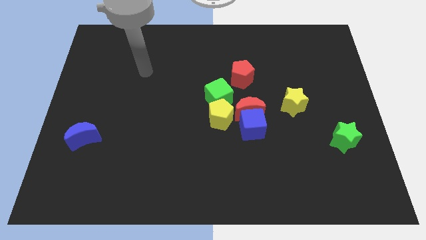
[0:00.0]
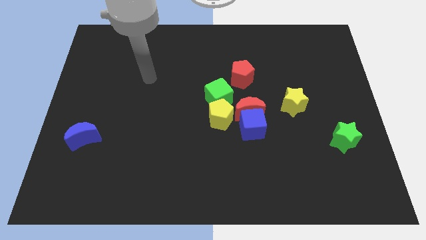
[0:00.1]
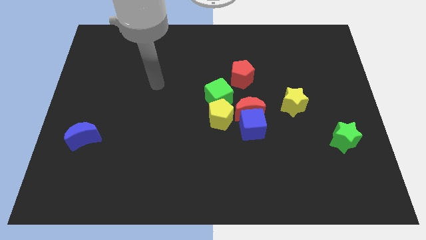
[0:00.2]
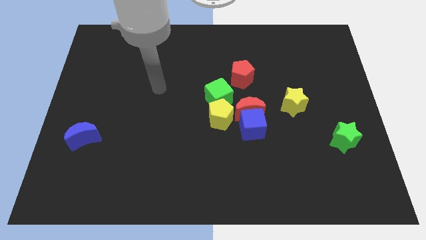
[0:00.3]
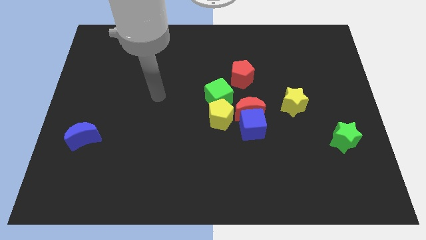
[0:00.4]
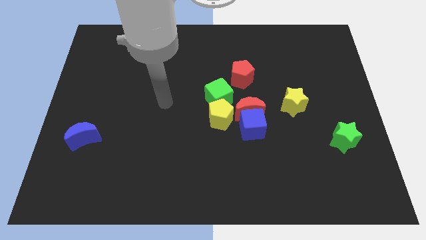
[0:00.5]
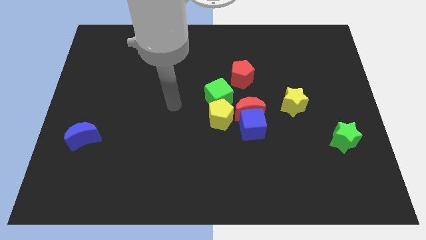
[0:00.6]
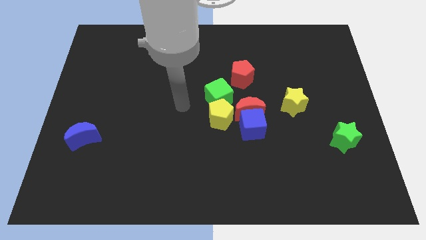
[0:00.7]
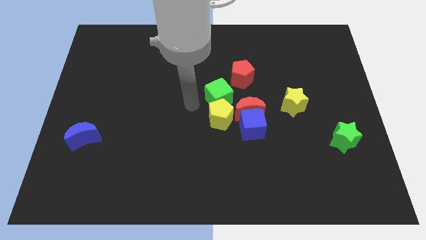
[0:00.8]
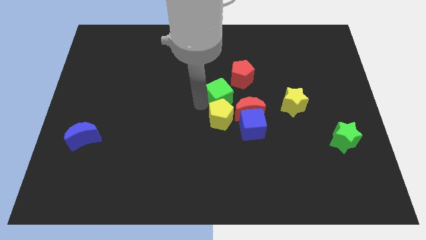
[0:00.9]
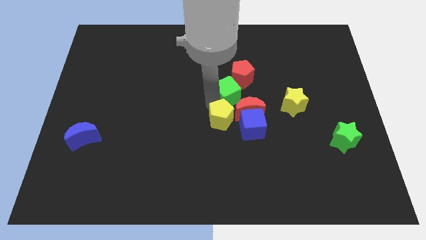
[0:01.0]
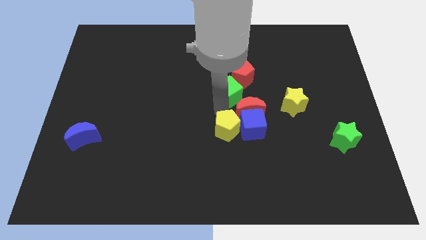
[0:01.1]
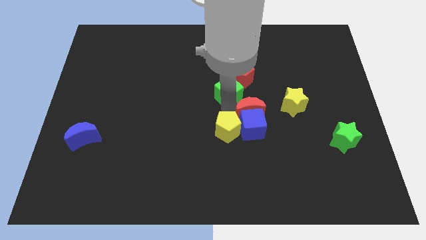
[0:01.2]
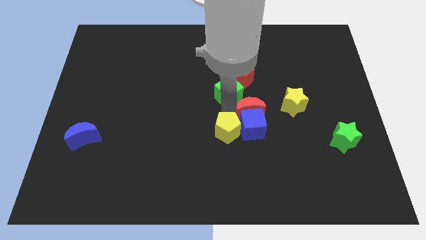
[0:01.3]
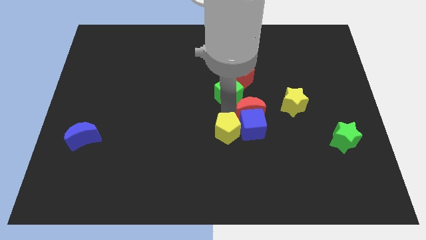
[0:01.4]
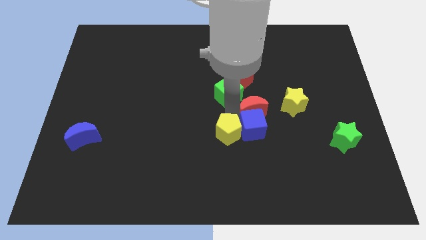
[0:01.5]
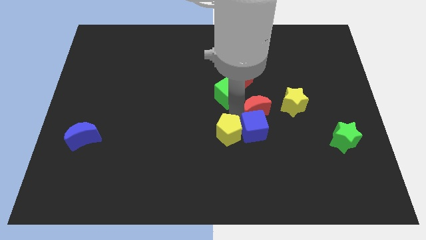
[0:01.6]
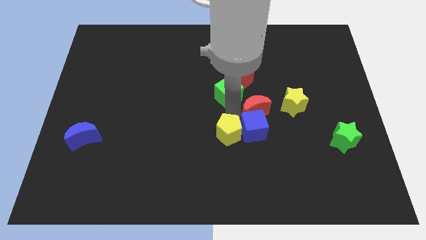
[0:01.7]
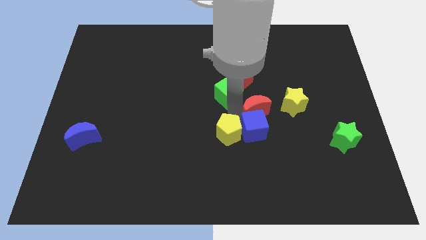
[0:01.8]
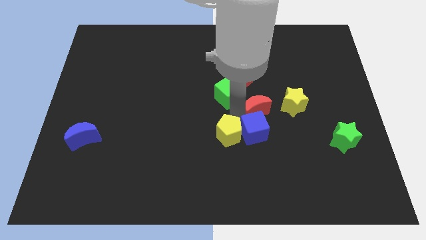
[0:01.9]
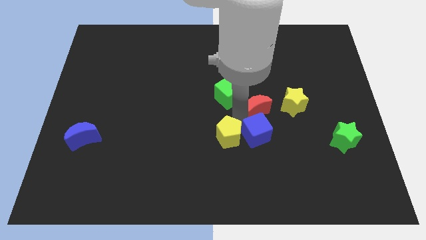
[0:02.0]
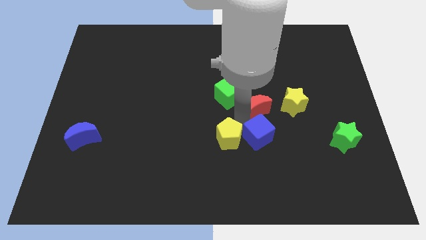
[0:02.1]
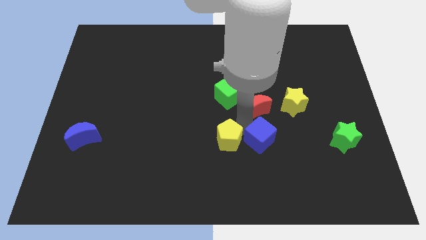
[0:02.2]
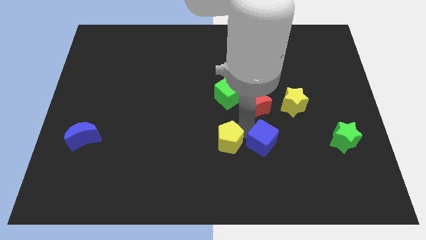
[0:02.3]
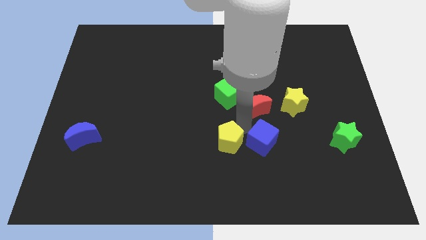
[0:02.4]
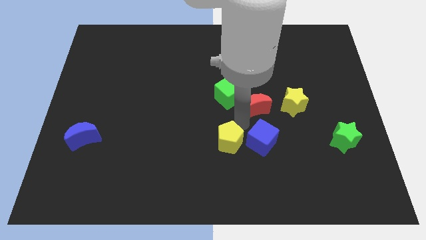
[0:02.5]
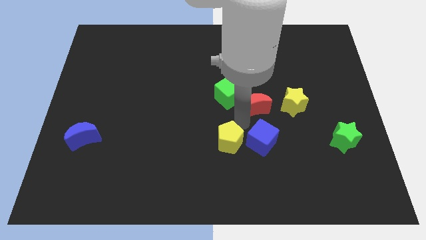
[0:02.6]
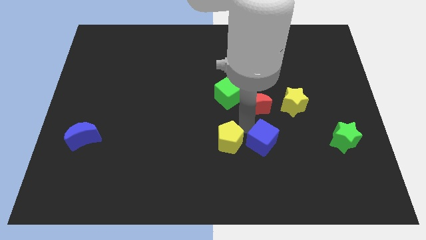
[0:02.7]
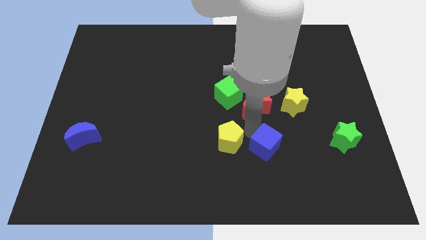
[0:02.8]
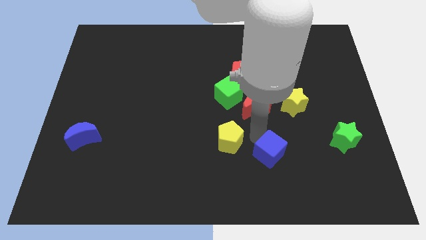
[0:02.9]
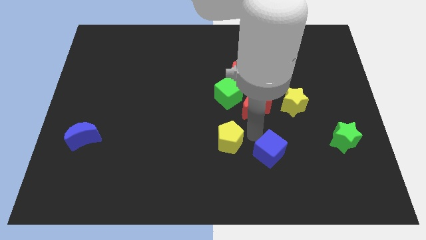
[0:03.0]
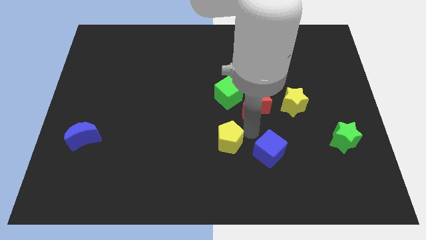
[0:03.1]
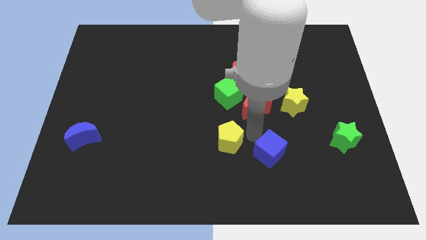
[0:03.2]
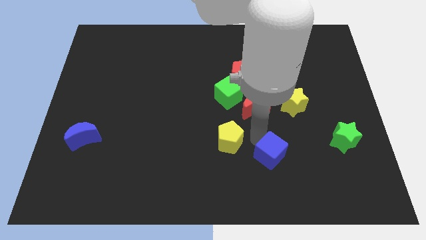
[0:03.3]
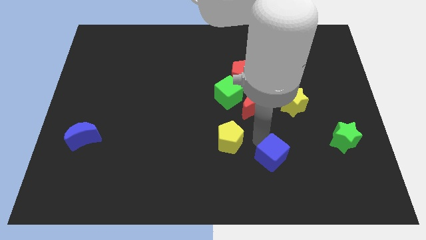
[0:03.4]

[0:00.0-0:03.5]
move the blue cube away from the red moon and yellow pentagon

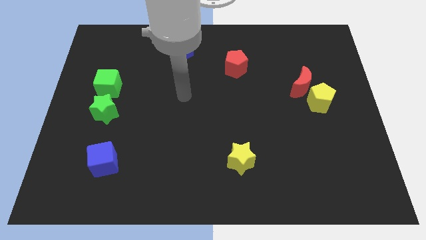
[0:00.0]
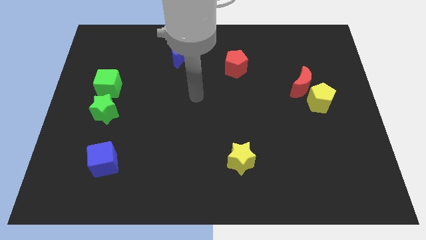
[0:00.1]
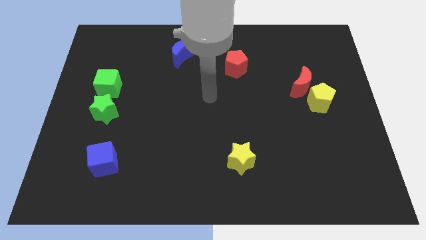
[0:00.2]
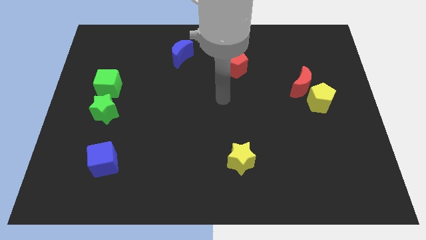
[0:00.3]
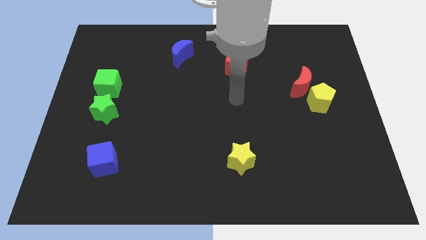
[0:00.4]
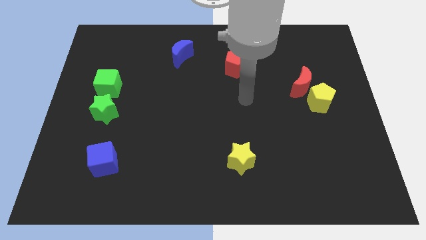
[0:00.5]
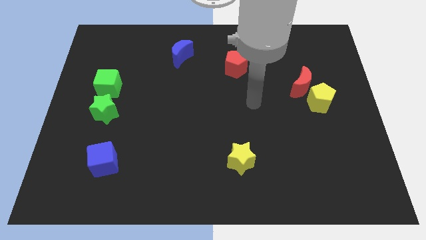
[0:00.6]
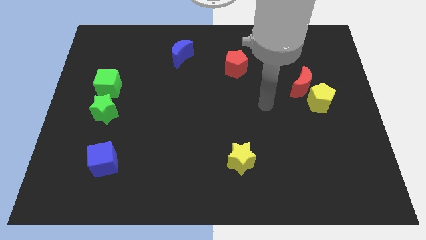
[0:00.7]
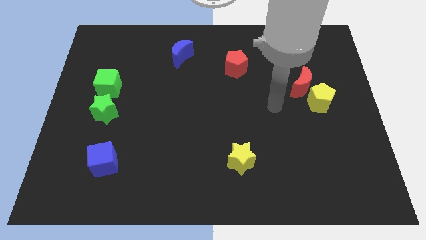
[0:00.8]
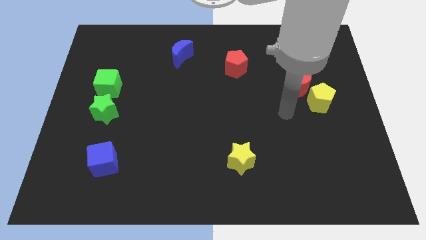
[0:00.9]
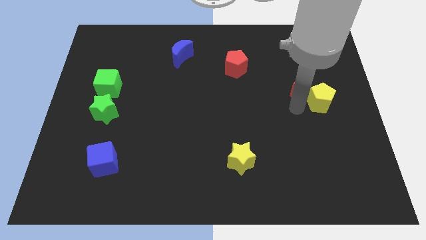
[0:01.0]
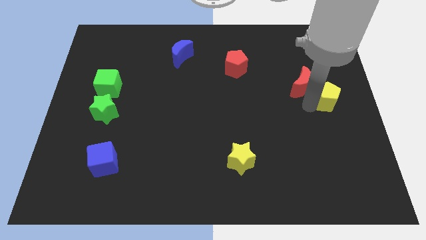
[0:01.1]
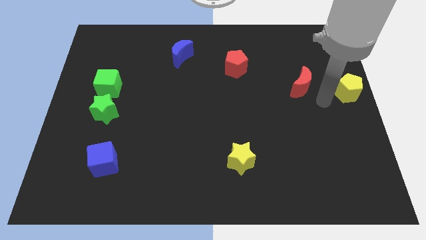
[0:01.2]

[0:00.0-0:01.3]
separate the red moon from the yellow pentagon

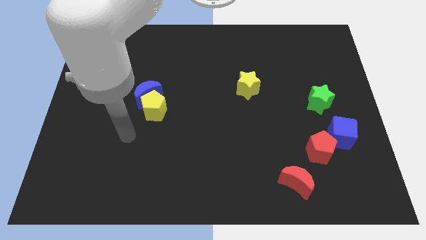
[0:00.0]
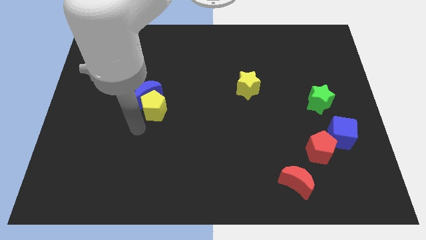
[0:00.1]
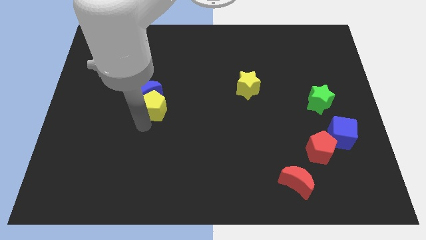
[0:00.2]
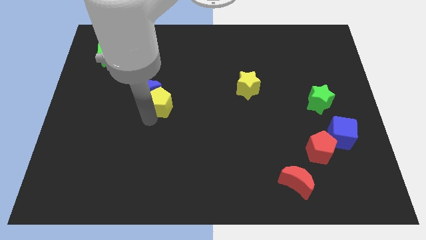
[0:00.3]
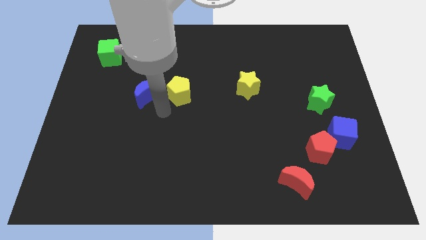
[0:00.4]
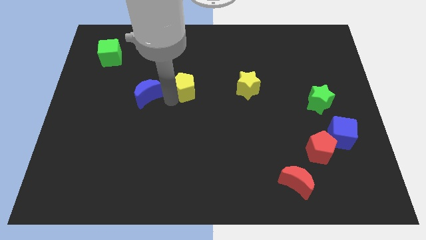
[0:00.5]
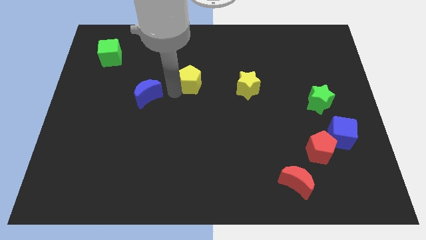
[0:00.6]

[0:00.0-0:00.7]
separate the blue moon from the yellow pentagon

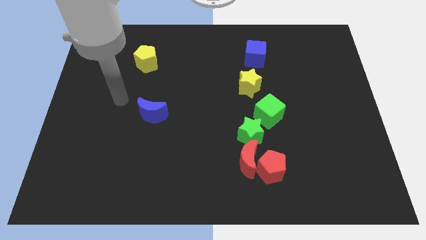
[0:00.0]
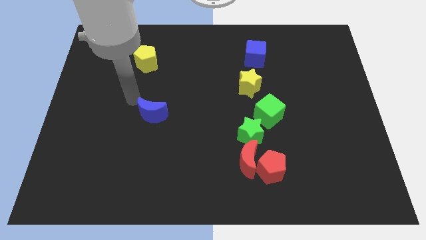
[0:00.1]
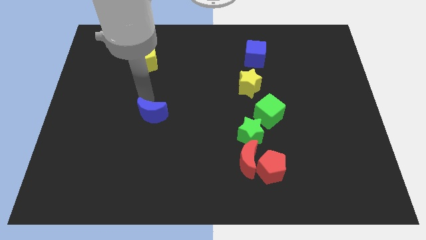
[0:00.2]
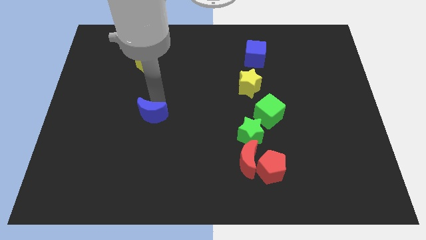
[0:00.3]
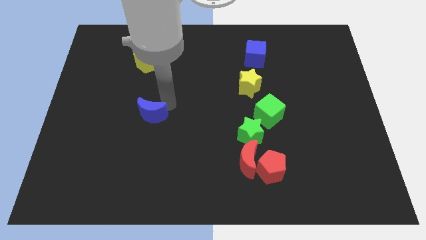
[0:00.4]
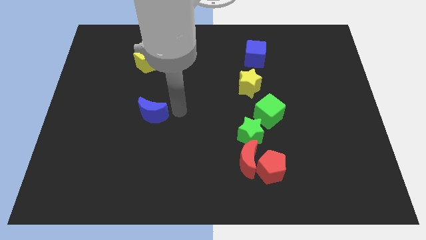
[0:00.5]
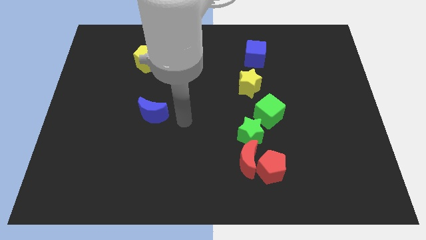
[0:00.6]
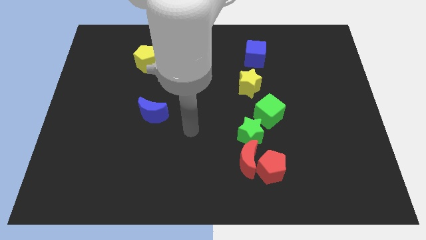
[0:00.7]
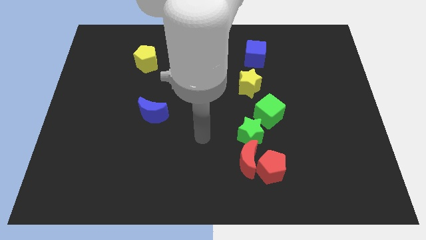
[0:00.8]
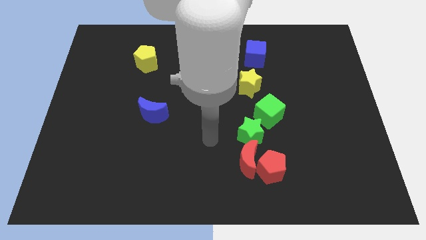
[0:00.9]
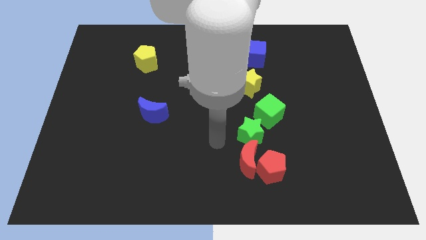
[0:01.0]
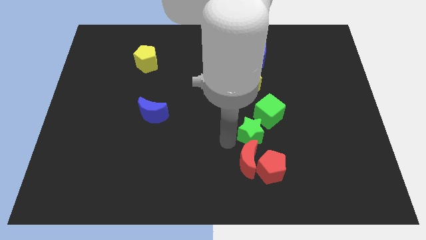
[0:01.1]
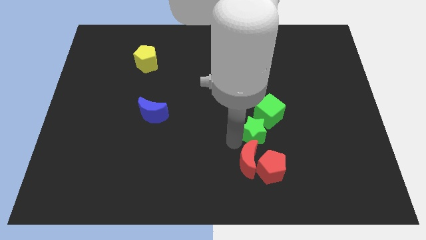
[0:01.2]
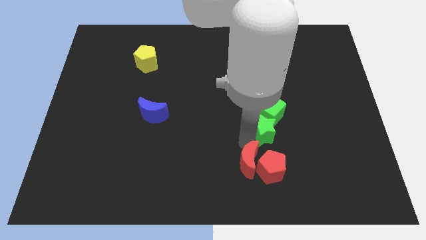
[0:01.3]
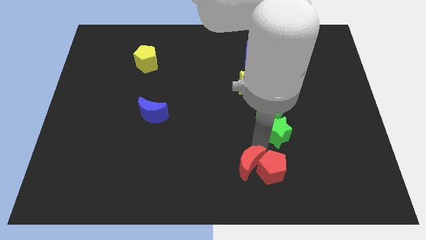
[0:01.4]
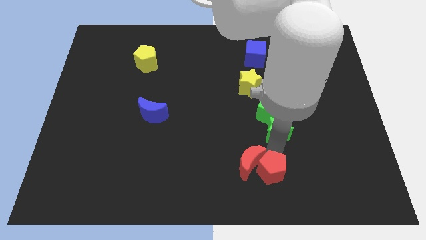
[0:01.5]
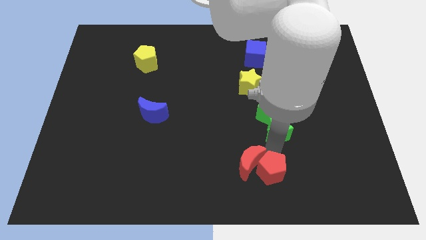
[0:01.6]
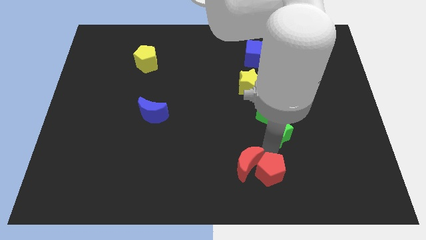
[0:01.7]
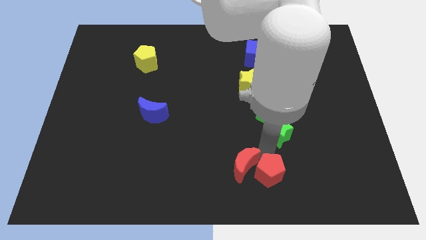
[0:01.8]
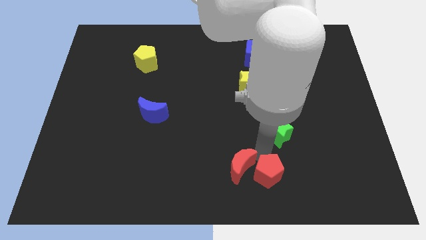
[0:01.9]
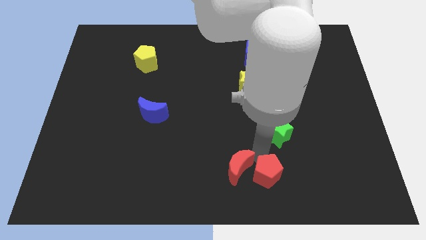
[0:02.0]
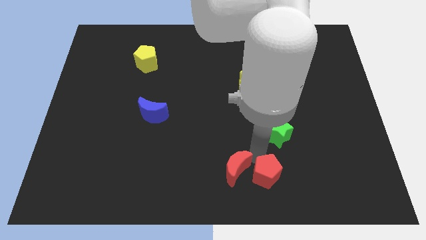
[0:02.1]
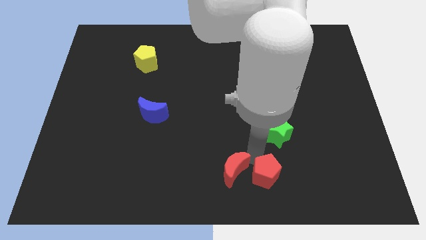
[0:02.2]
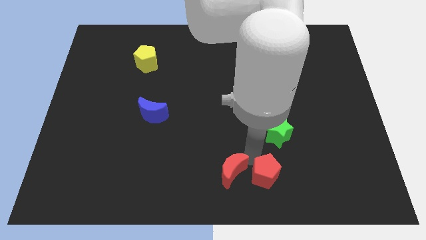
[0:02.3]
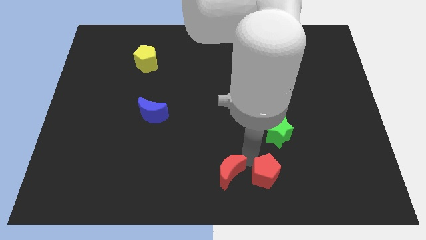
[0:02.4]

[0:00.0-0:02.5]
move the red moon away from the red pentagon and green star

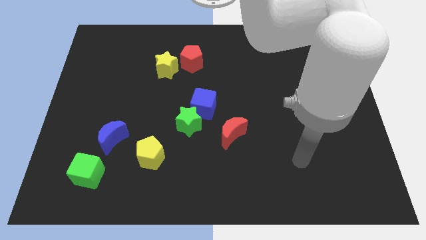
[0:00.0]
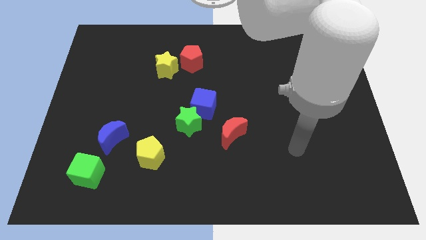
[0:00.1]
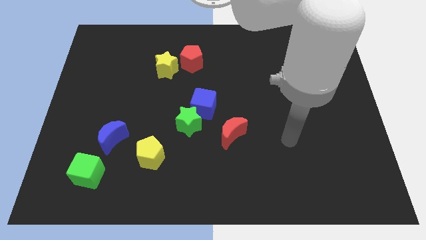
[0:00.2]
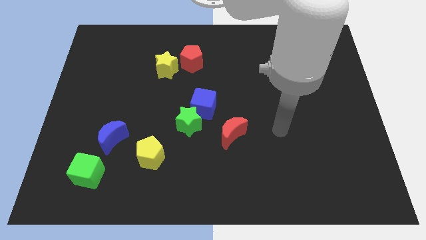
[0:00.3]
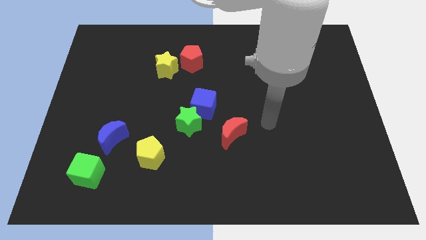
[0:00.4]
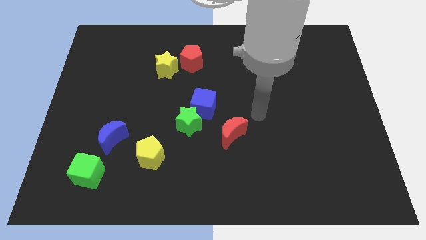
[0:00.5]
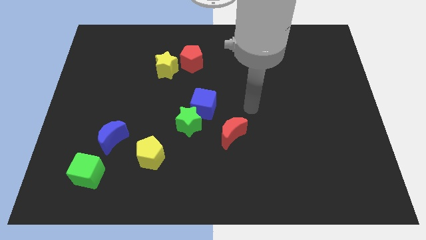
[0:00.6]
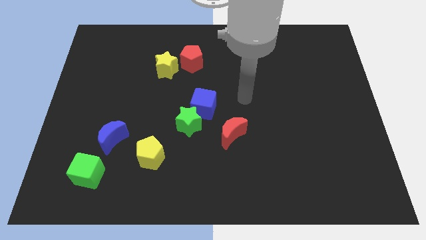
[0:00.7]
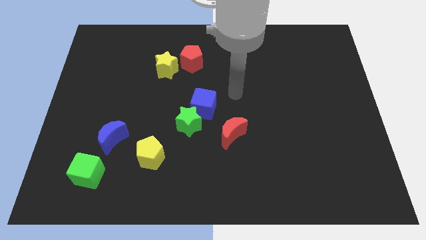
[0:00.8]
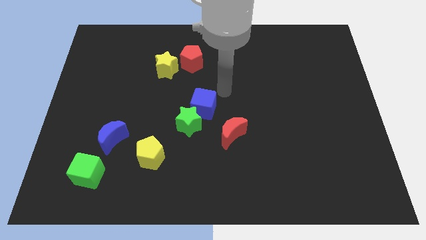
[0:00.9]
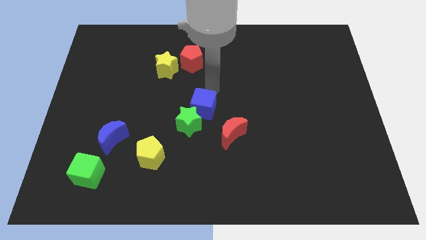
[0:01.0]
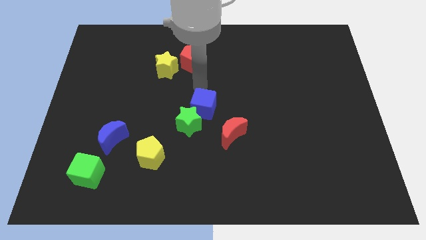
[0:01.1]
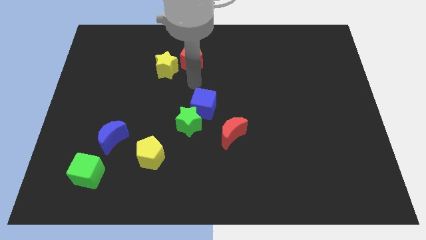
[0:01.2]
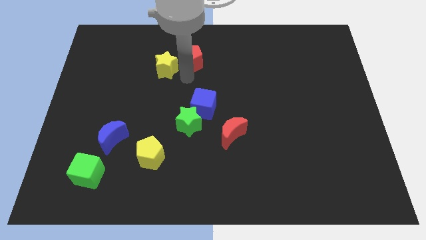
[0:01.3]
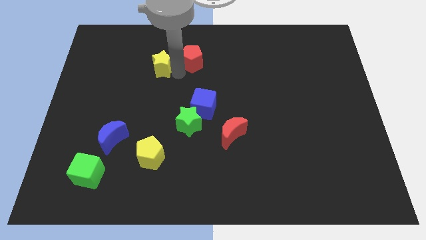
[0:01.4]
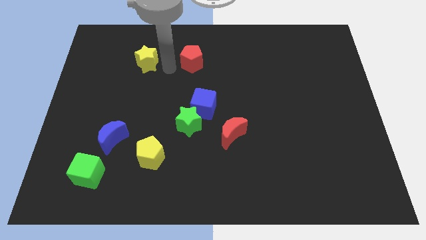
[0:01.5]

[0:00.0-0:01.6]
separate the red pentagon from the yellow star
